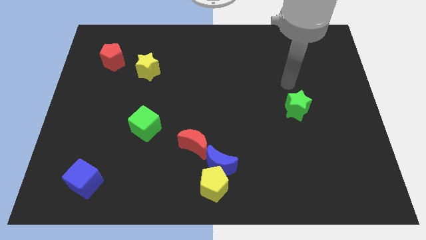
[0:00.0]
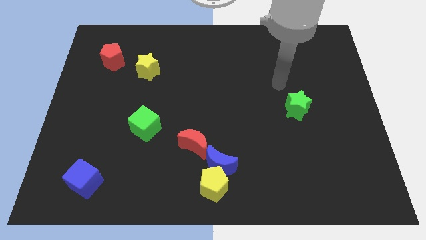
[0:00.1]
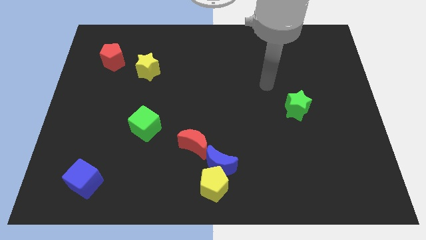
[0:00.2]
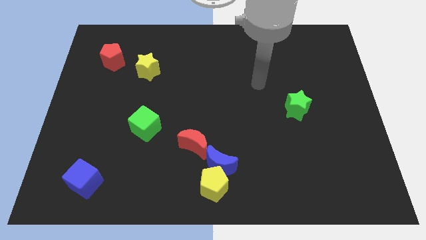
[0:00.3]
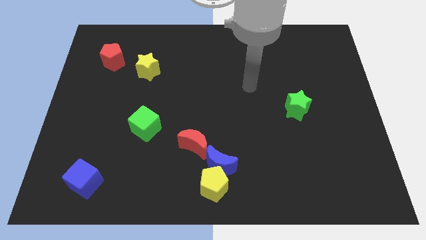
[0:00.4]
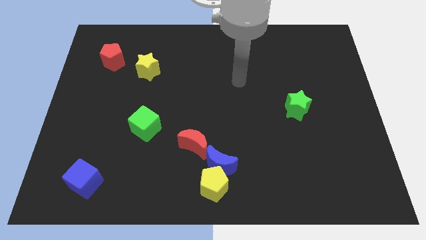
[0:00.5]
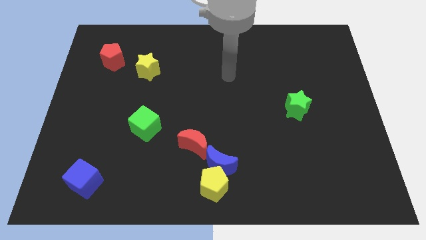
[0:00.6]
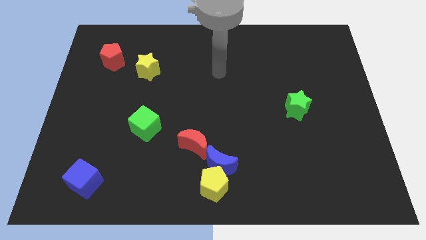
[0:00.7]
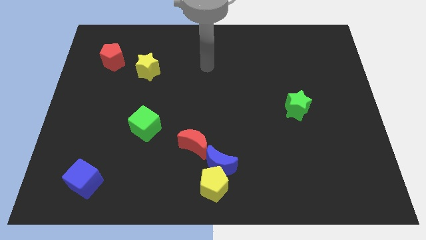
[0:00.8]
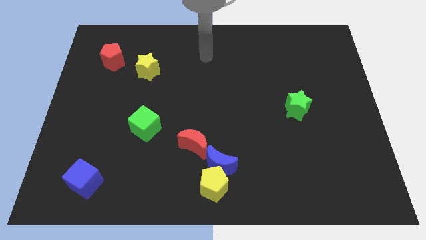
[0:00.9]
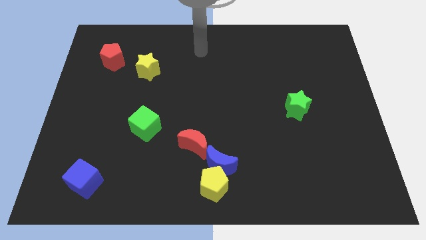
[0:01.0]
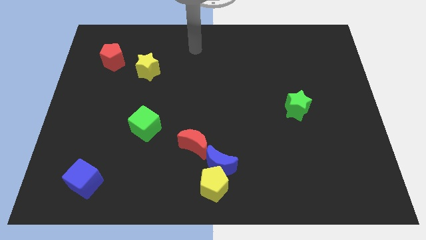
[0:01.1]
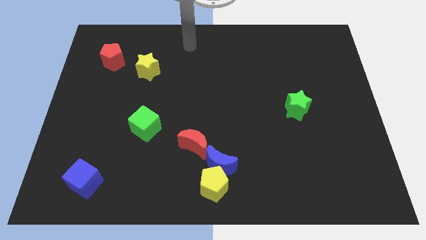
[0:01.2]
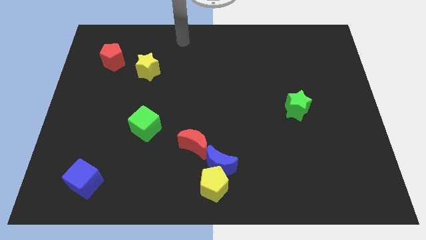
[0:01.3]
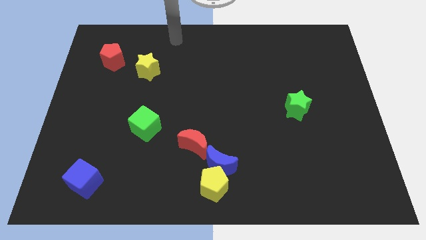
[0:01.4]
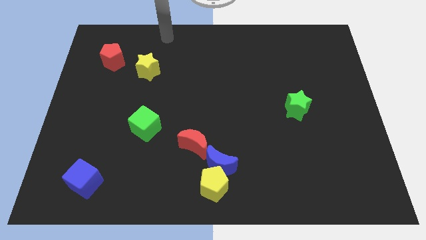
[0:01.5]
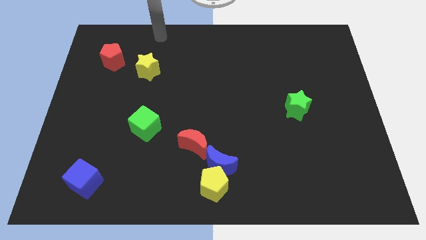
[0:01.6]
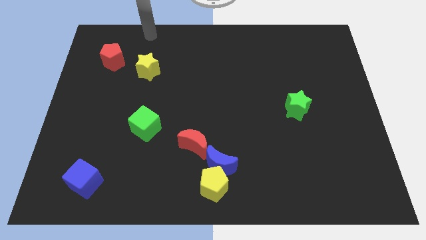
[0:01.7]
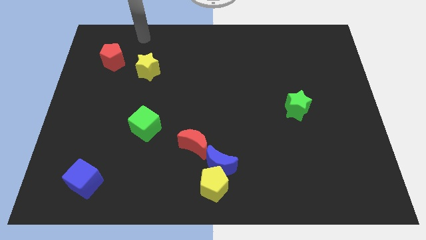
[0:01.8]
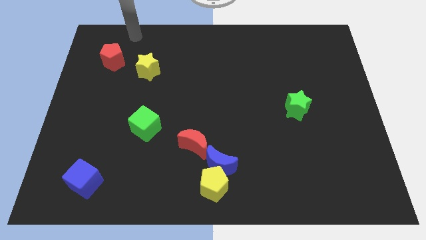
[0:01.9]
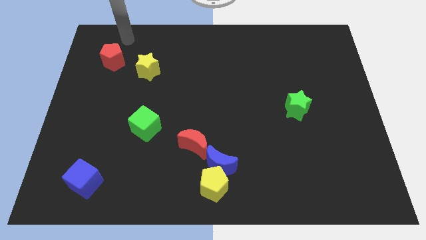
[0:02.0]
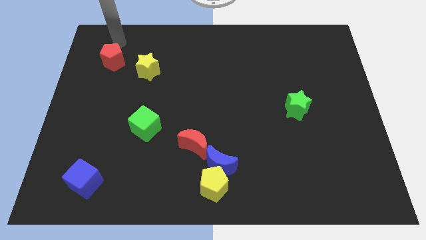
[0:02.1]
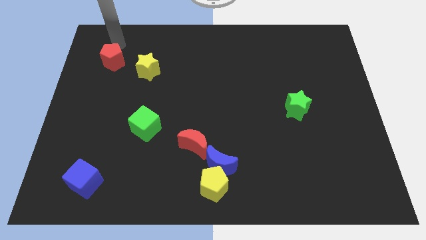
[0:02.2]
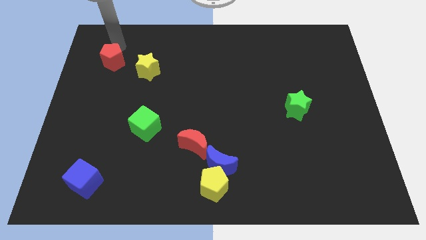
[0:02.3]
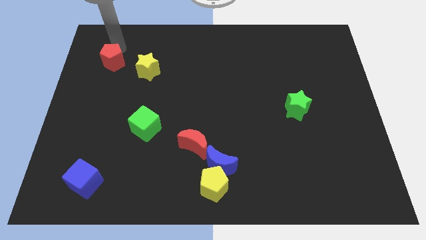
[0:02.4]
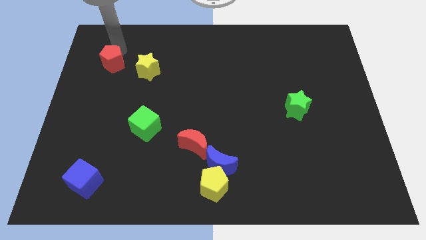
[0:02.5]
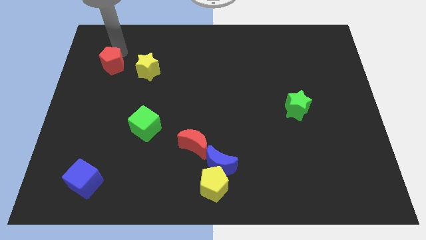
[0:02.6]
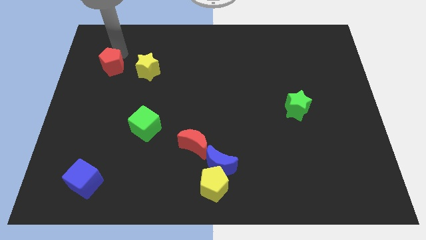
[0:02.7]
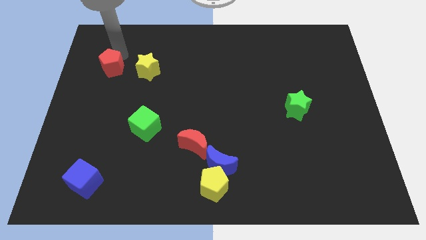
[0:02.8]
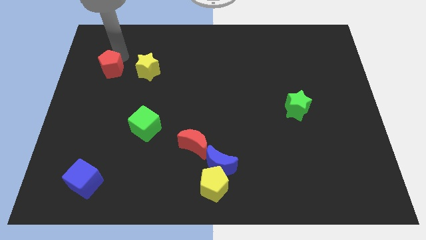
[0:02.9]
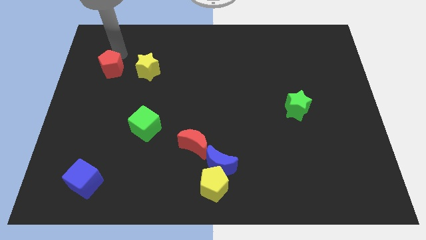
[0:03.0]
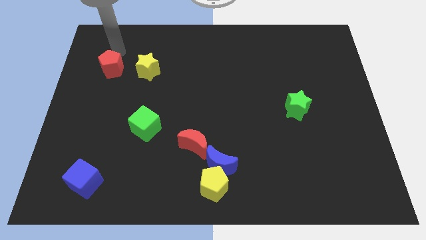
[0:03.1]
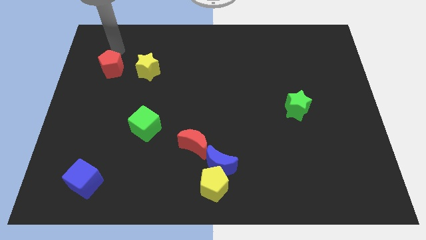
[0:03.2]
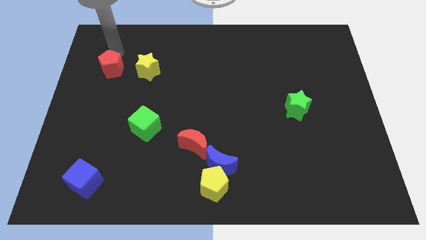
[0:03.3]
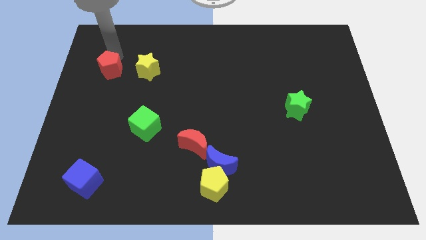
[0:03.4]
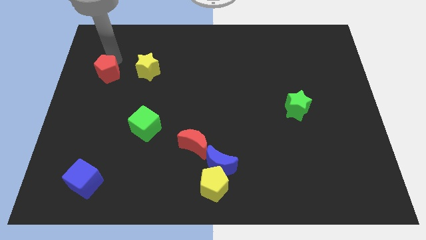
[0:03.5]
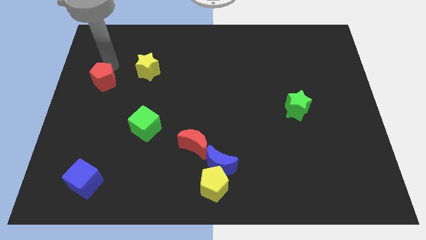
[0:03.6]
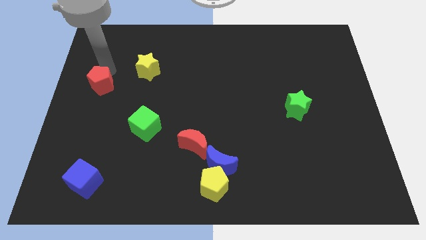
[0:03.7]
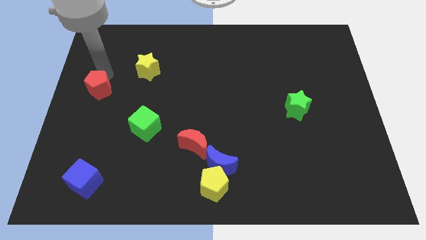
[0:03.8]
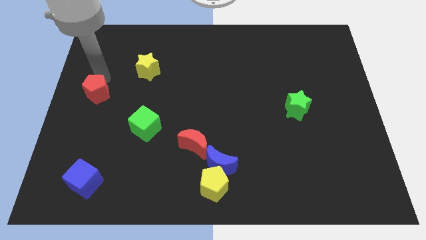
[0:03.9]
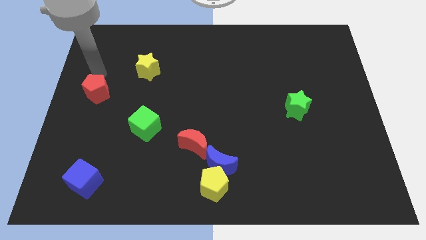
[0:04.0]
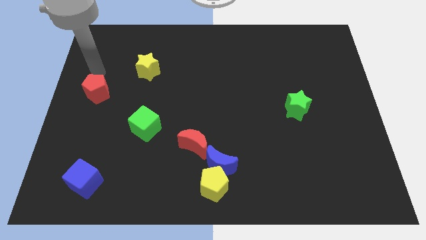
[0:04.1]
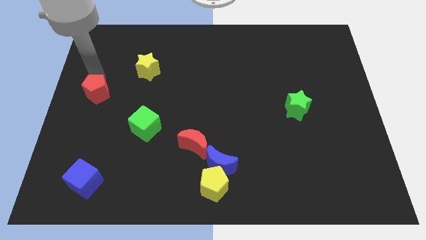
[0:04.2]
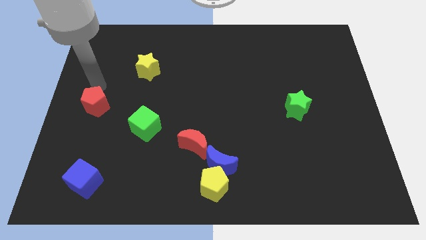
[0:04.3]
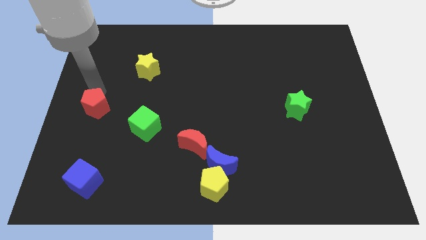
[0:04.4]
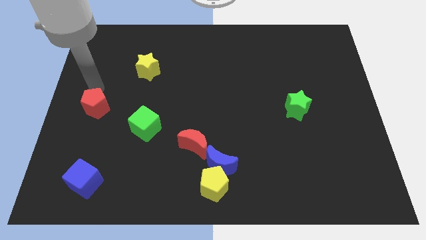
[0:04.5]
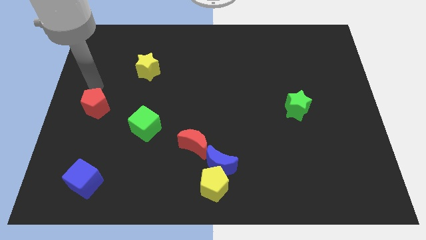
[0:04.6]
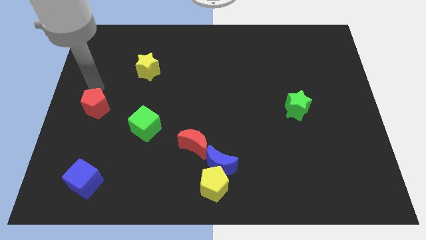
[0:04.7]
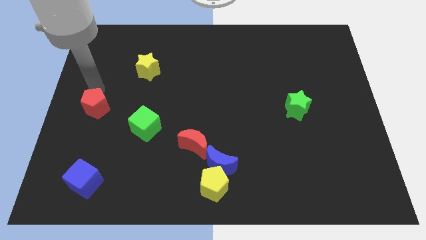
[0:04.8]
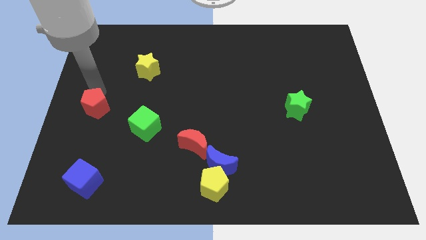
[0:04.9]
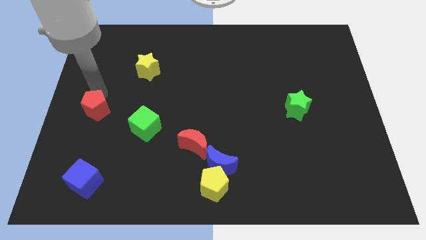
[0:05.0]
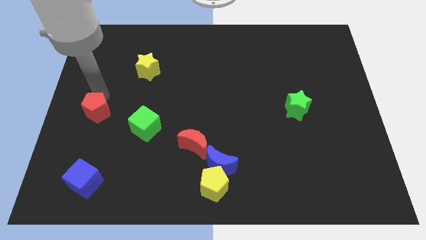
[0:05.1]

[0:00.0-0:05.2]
slide the red pentagon to the left of the green cube

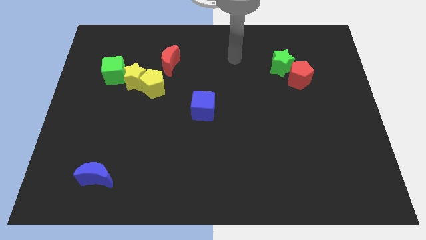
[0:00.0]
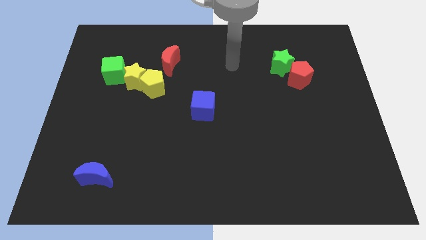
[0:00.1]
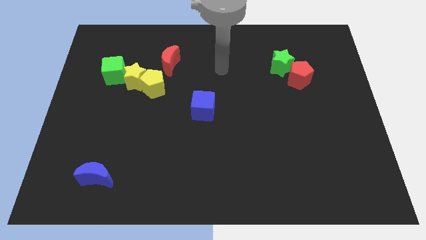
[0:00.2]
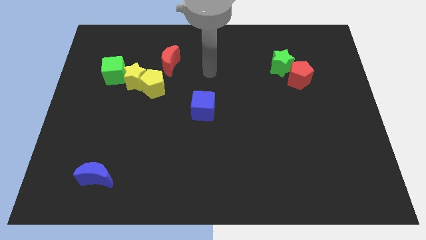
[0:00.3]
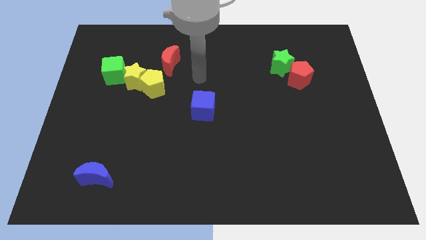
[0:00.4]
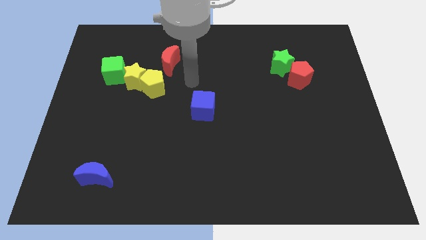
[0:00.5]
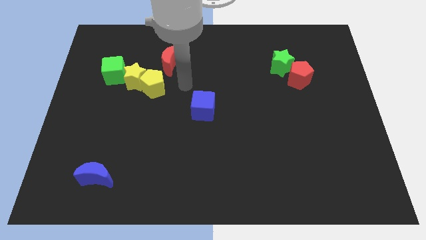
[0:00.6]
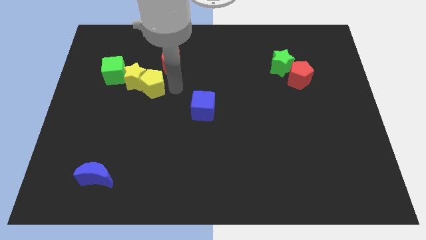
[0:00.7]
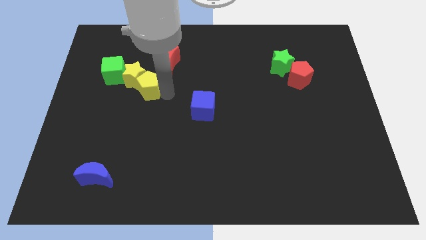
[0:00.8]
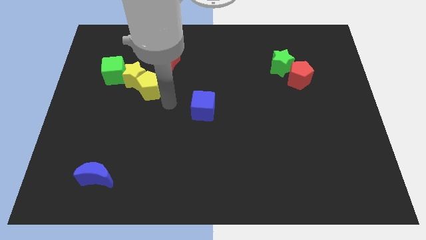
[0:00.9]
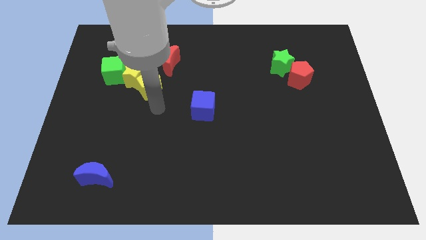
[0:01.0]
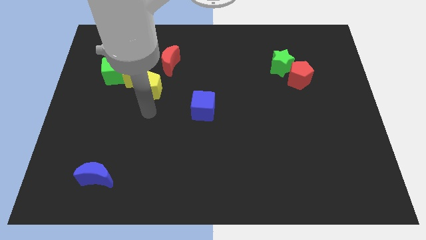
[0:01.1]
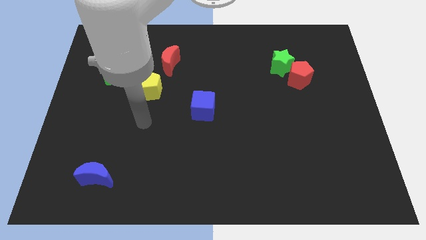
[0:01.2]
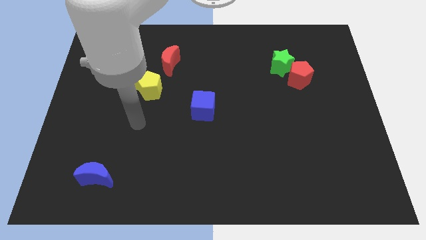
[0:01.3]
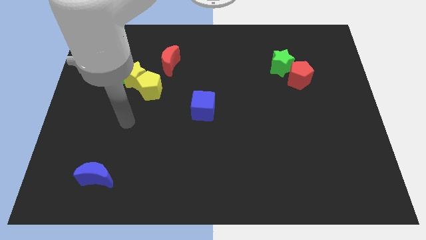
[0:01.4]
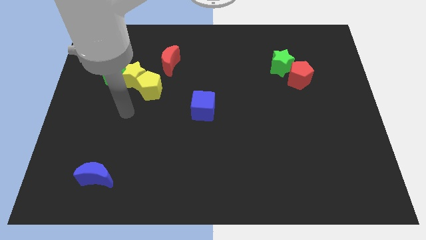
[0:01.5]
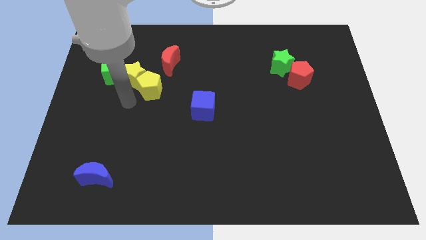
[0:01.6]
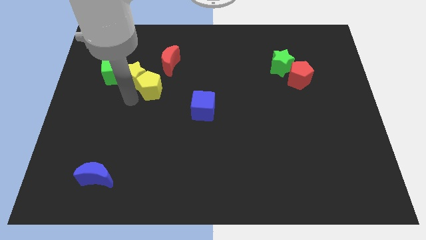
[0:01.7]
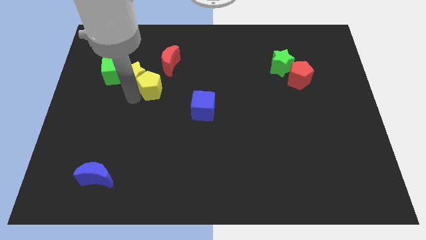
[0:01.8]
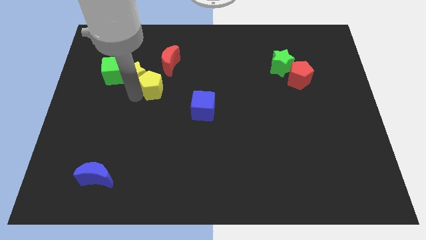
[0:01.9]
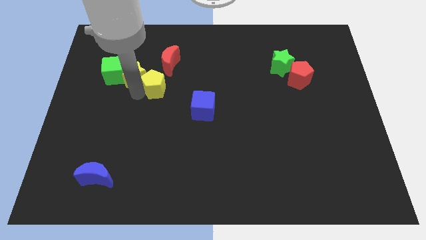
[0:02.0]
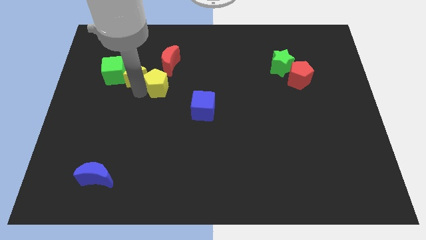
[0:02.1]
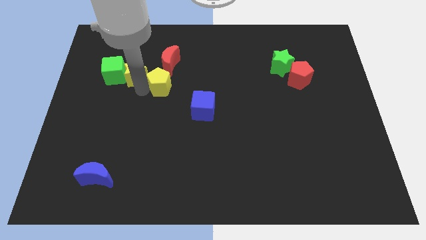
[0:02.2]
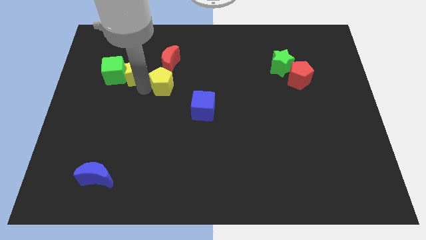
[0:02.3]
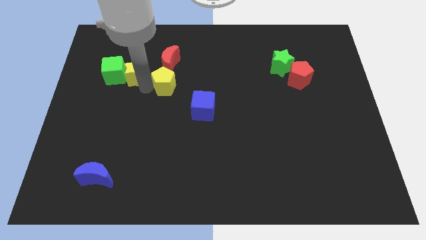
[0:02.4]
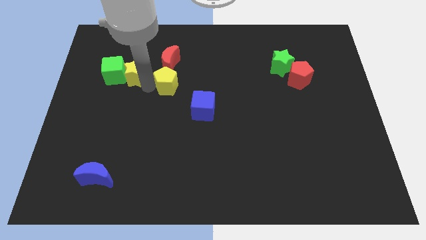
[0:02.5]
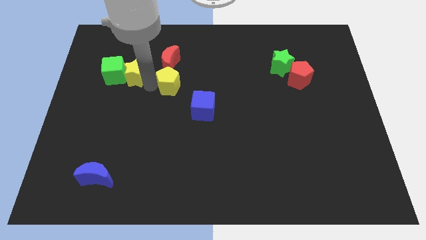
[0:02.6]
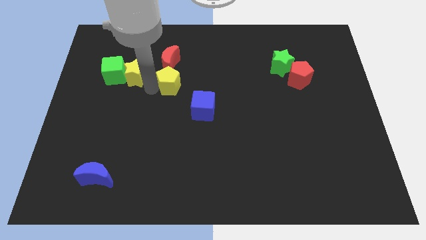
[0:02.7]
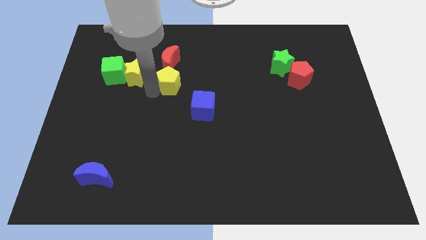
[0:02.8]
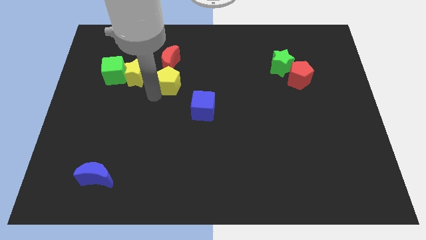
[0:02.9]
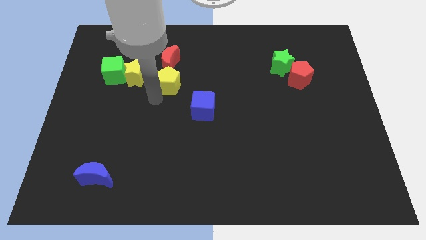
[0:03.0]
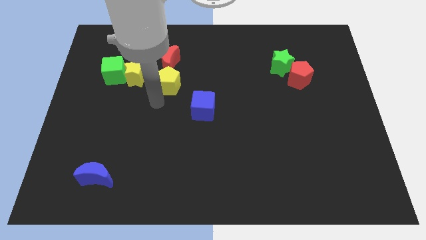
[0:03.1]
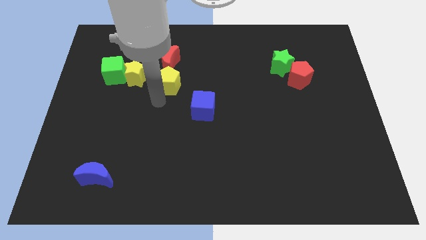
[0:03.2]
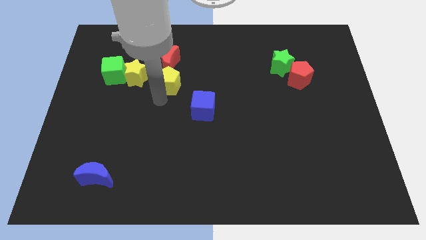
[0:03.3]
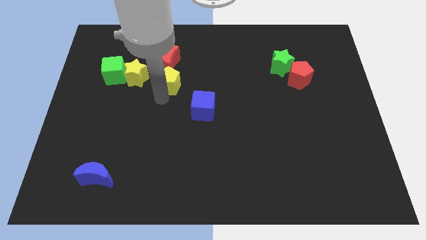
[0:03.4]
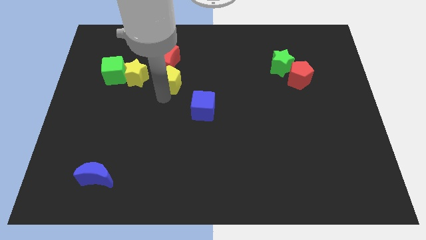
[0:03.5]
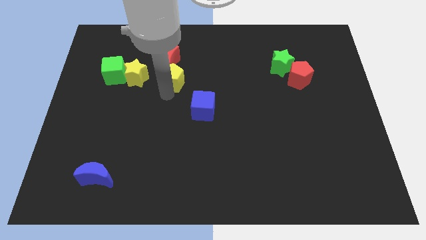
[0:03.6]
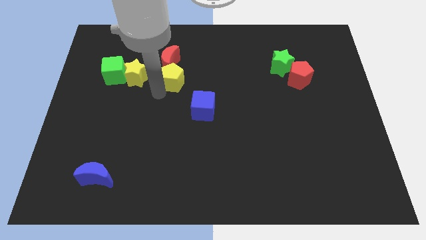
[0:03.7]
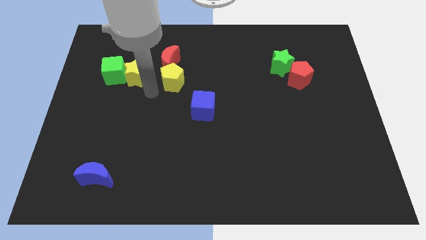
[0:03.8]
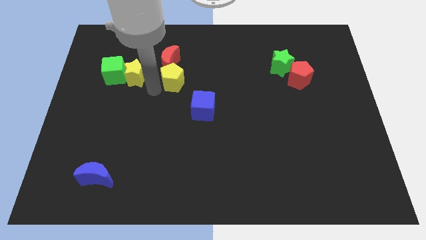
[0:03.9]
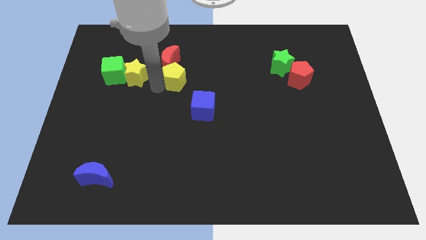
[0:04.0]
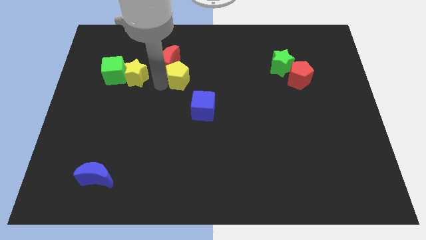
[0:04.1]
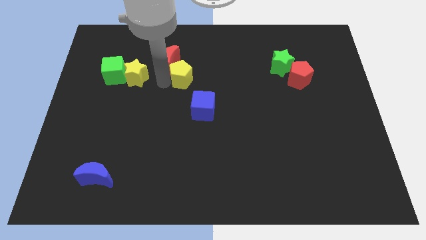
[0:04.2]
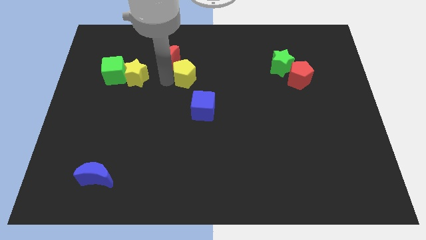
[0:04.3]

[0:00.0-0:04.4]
slide the yellow pentagon just right of the red moon
